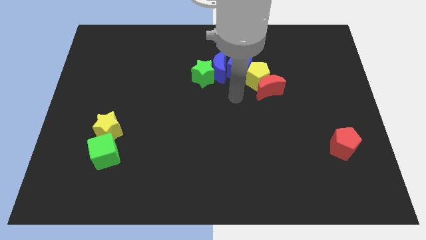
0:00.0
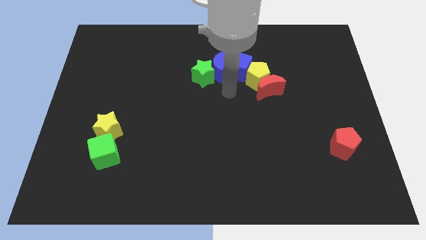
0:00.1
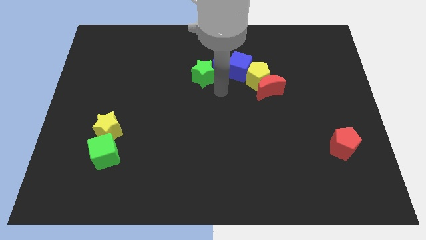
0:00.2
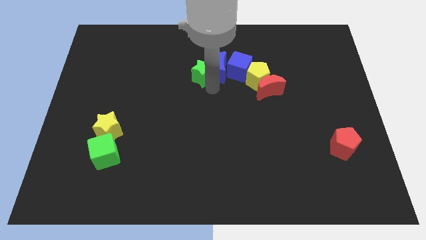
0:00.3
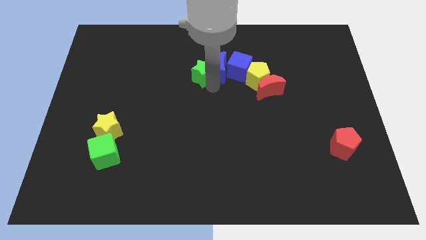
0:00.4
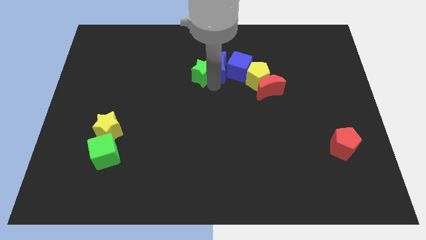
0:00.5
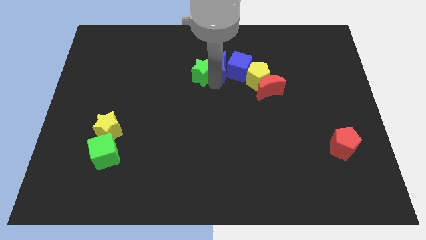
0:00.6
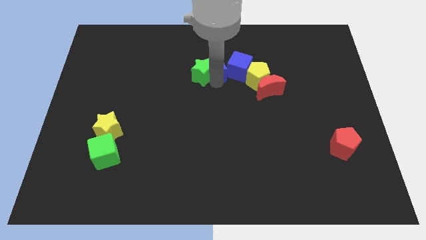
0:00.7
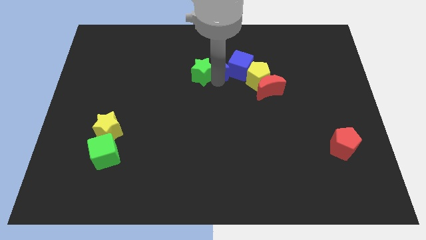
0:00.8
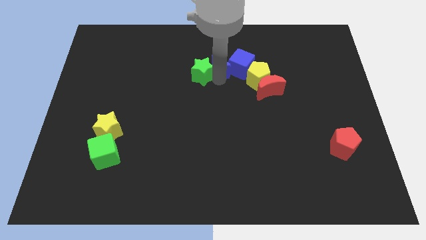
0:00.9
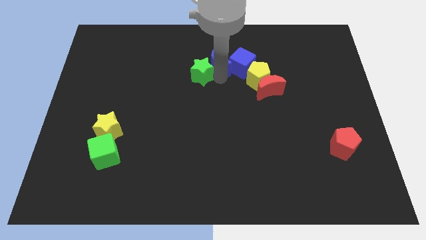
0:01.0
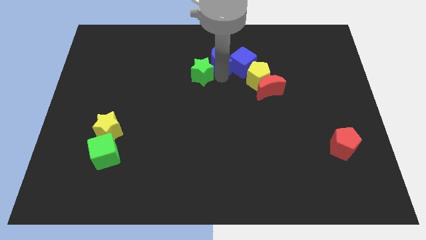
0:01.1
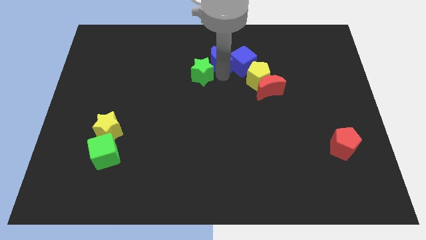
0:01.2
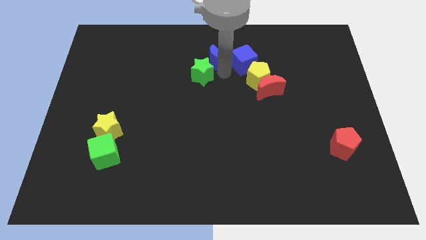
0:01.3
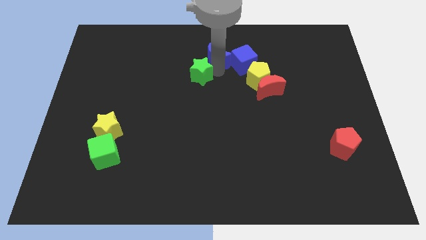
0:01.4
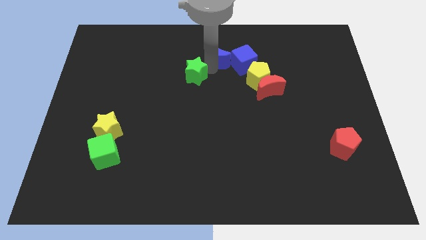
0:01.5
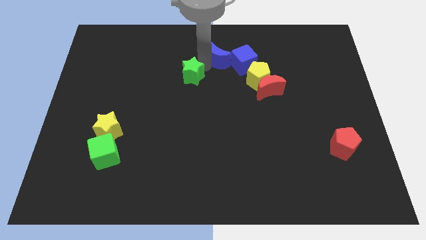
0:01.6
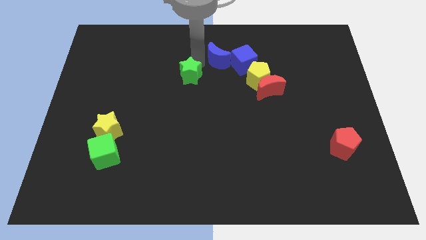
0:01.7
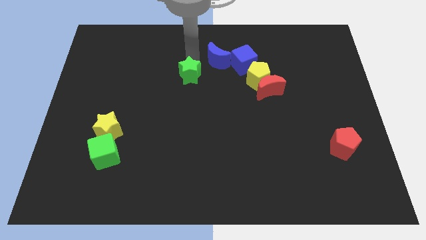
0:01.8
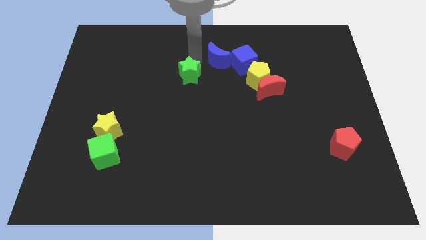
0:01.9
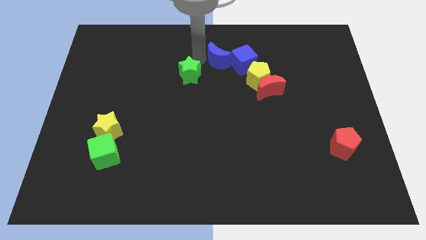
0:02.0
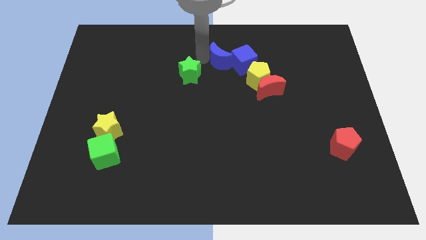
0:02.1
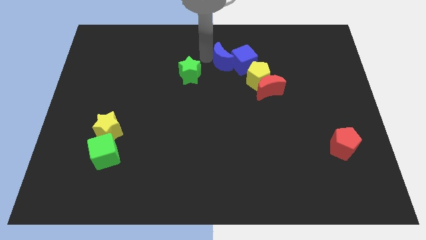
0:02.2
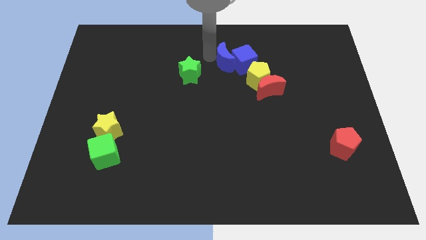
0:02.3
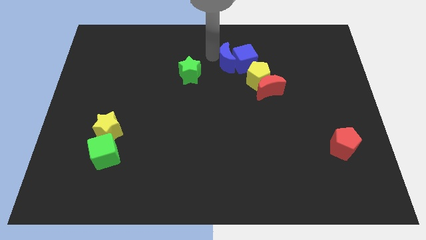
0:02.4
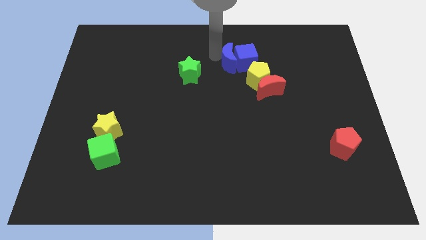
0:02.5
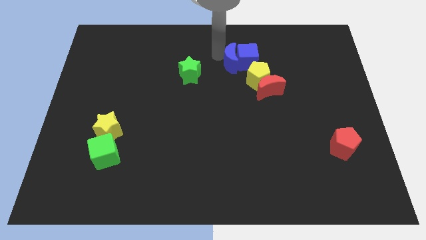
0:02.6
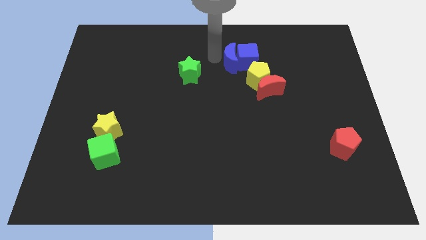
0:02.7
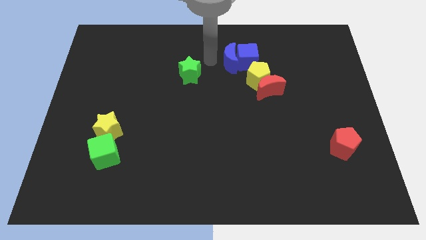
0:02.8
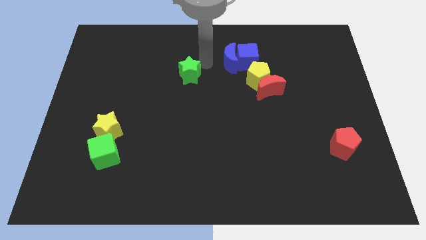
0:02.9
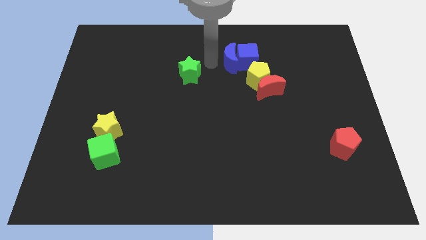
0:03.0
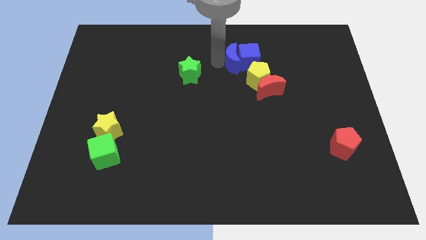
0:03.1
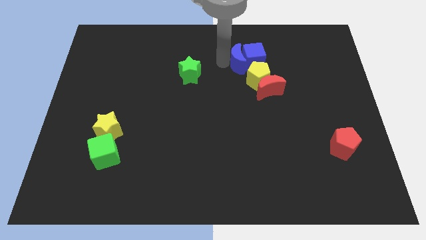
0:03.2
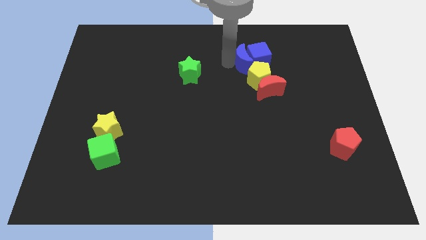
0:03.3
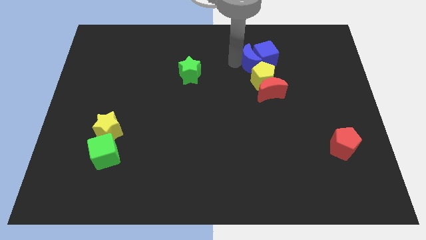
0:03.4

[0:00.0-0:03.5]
move the blue moon right somewhat

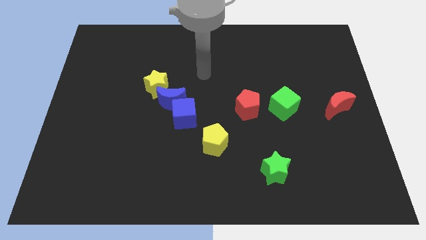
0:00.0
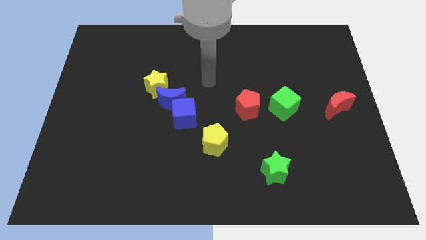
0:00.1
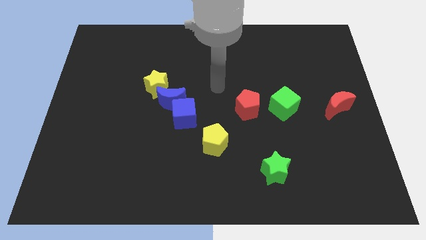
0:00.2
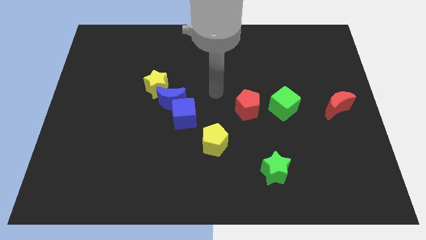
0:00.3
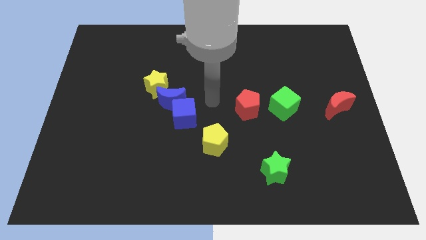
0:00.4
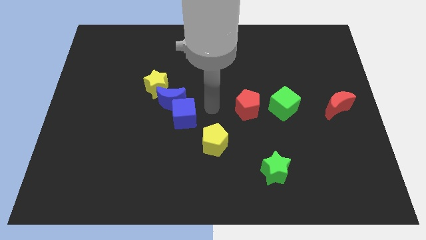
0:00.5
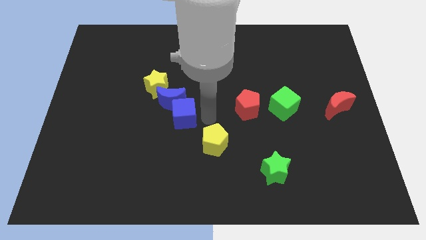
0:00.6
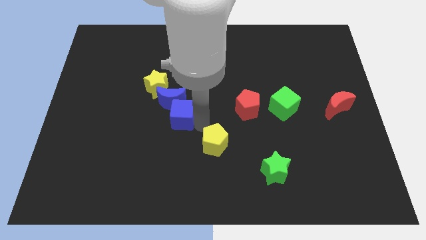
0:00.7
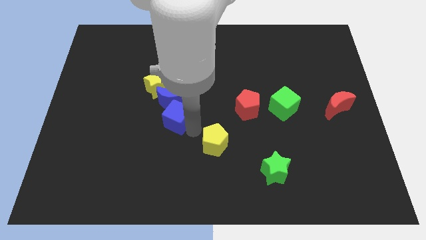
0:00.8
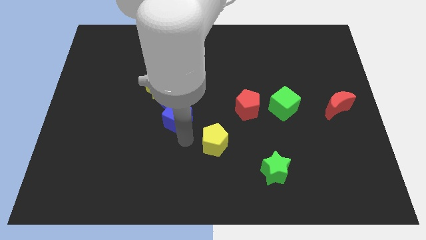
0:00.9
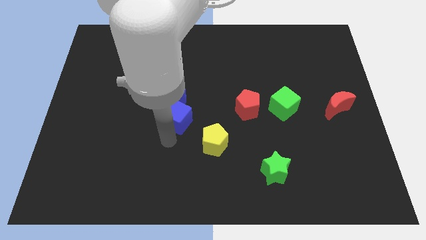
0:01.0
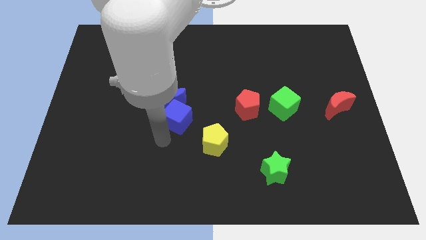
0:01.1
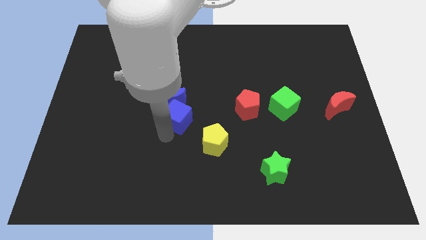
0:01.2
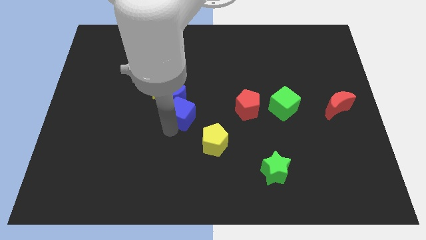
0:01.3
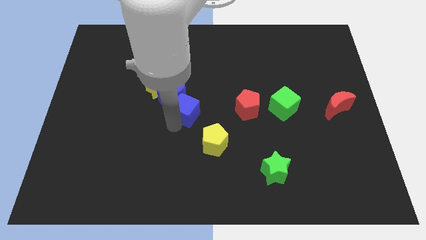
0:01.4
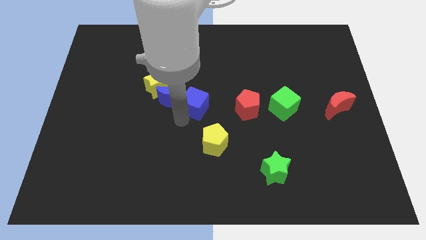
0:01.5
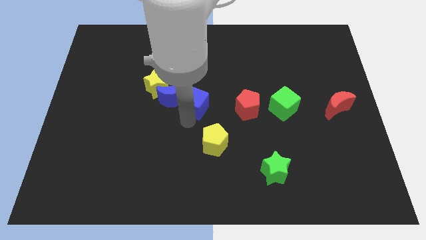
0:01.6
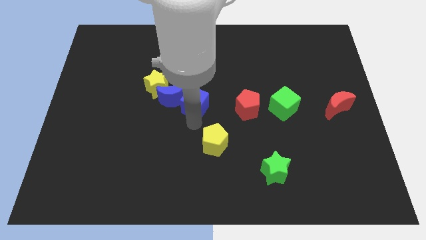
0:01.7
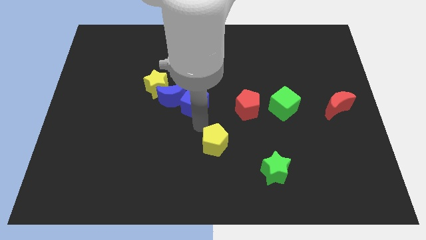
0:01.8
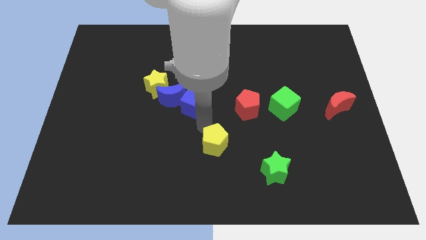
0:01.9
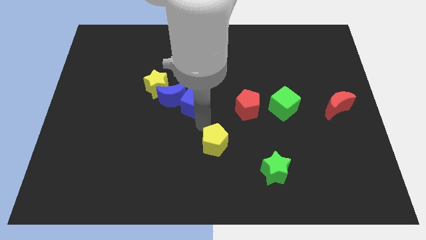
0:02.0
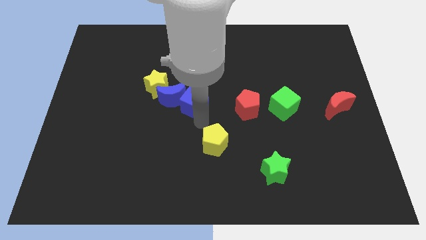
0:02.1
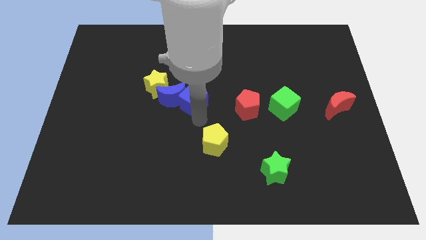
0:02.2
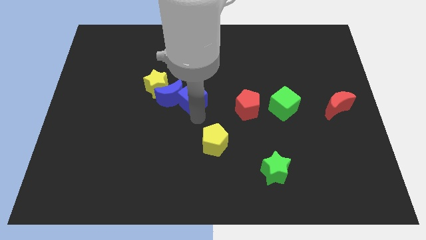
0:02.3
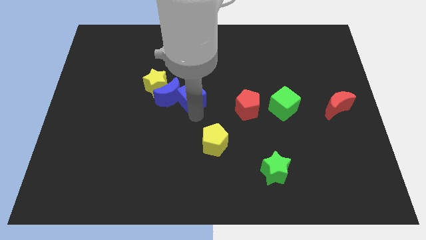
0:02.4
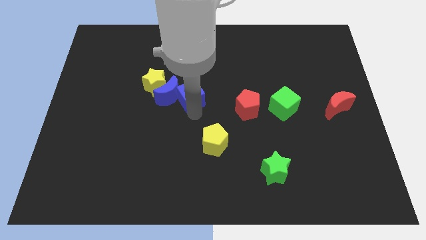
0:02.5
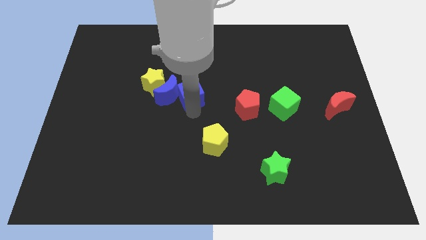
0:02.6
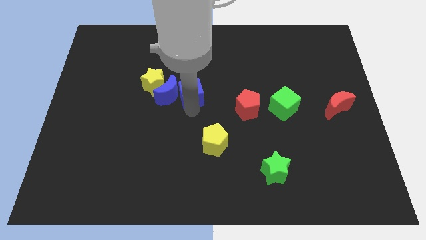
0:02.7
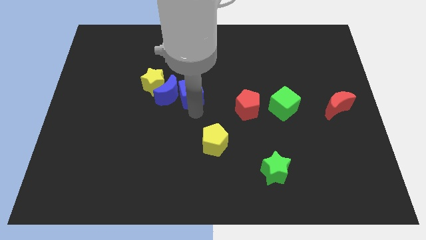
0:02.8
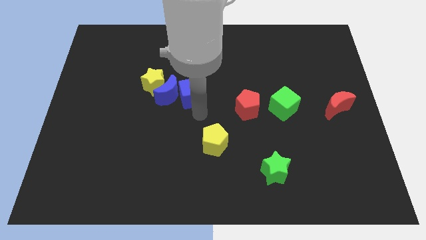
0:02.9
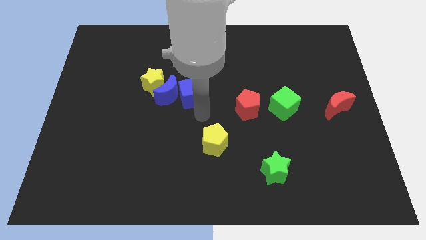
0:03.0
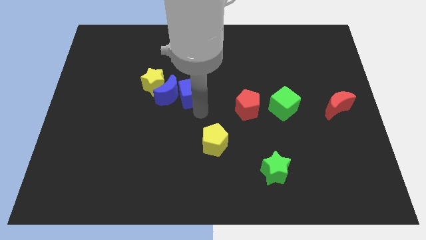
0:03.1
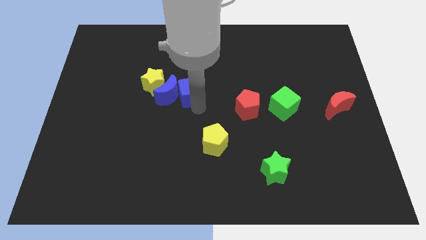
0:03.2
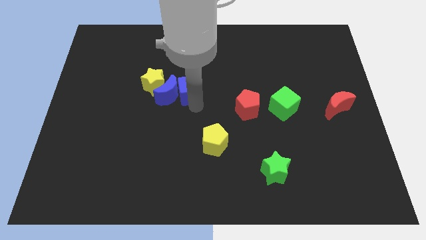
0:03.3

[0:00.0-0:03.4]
move the blue cube upwards a bit

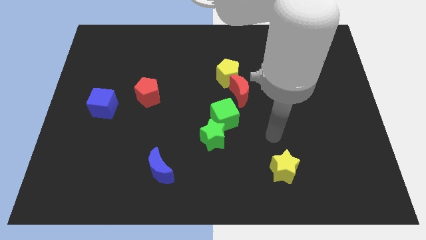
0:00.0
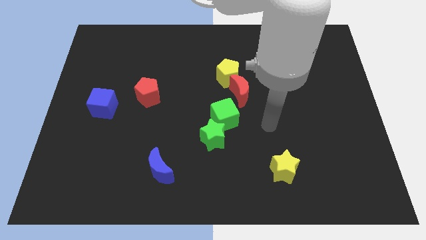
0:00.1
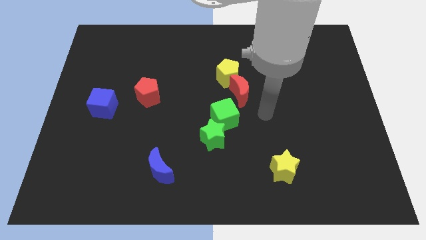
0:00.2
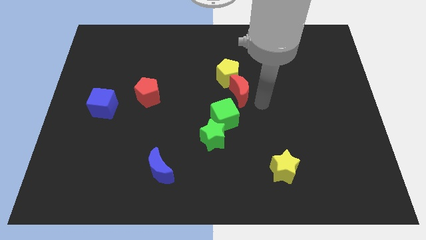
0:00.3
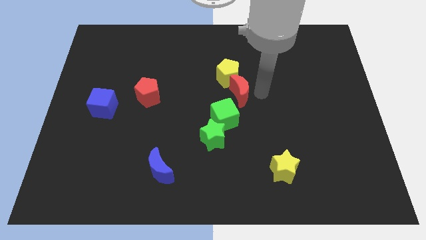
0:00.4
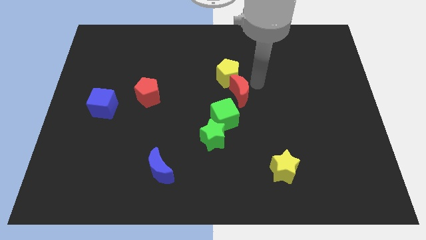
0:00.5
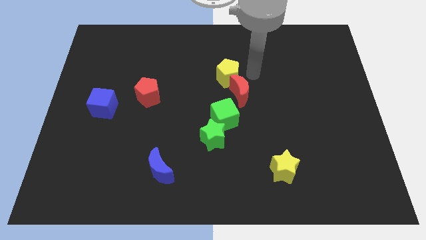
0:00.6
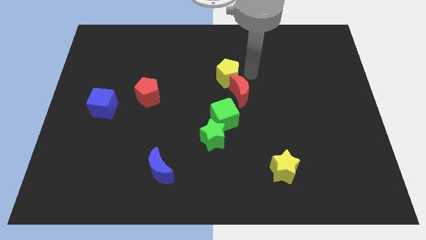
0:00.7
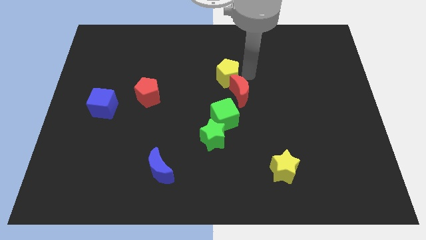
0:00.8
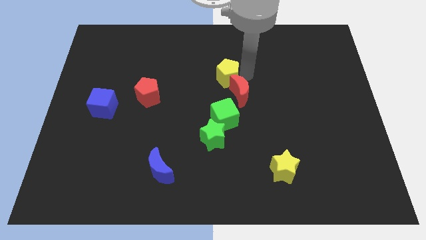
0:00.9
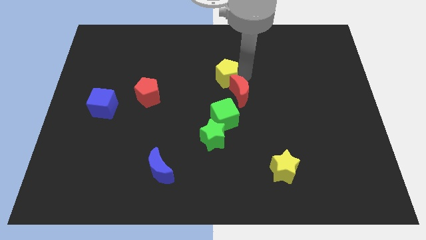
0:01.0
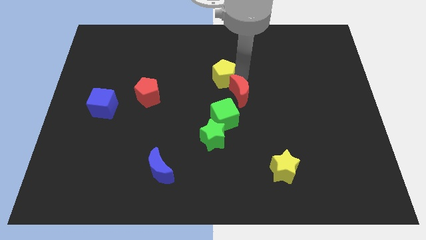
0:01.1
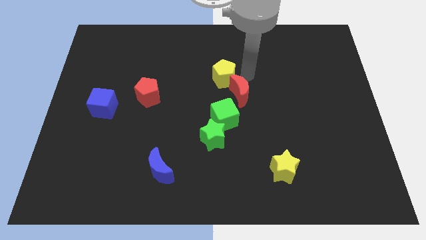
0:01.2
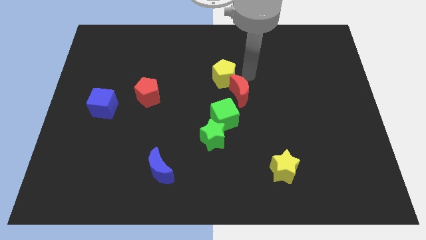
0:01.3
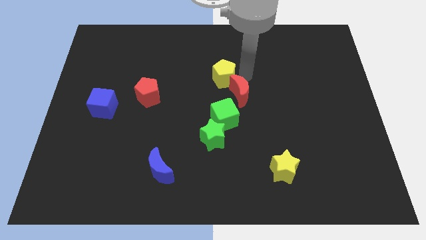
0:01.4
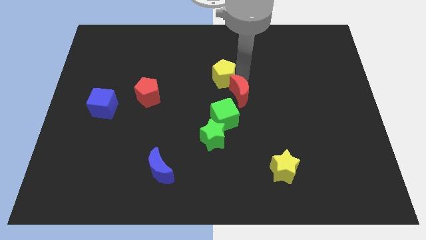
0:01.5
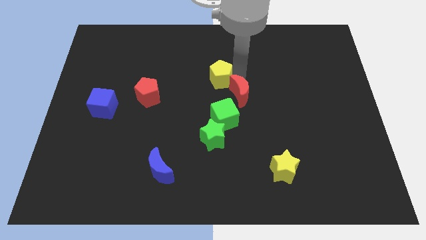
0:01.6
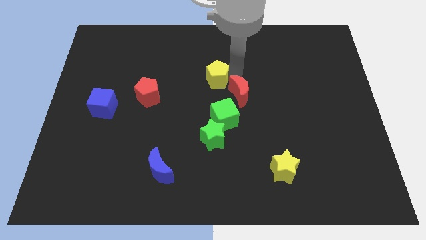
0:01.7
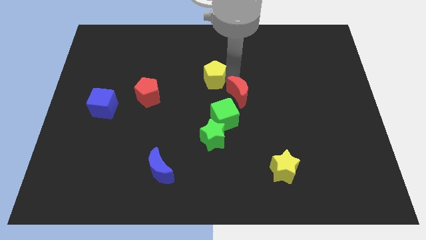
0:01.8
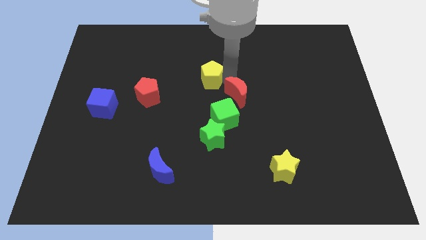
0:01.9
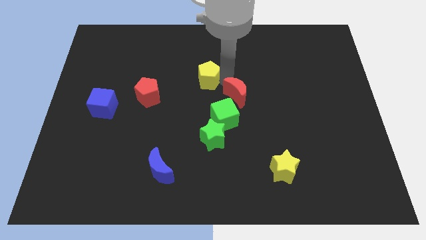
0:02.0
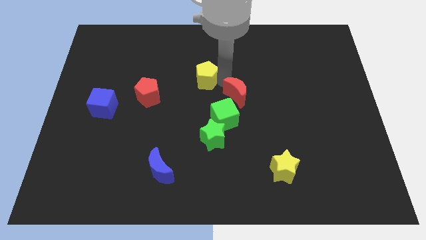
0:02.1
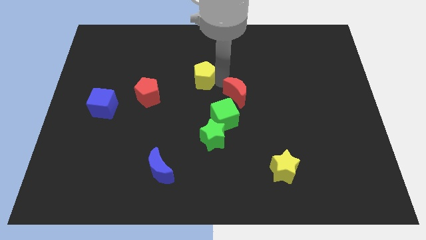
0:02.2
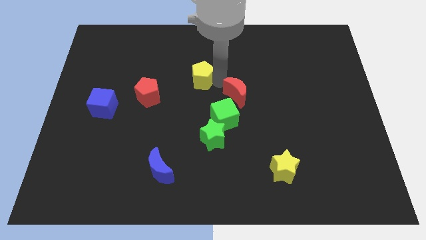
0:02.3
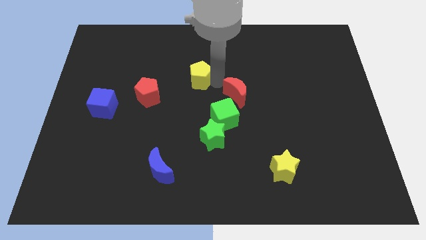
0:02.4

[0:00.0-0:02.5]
slightly move the yellow pentagon left
